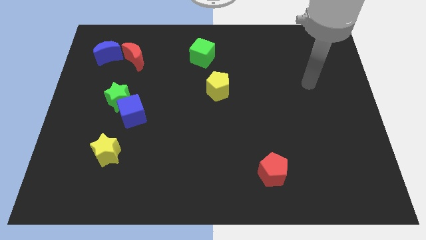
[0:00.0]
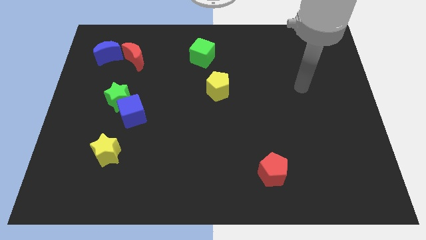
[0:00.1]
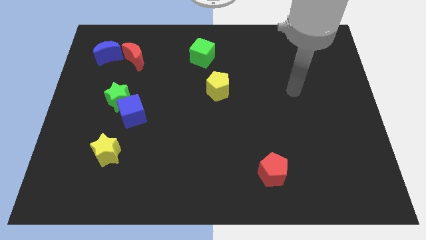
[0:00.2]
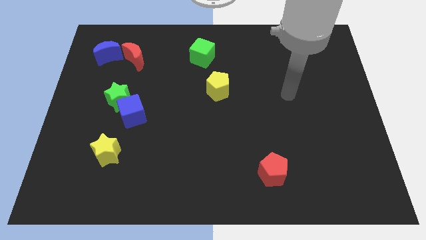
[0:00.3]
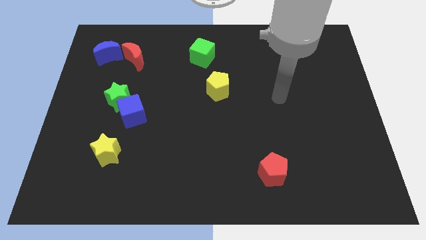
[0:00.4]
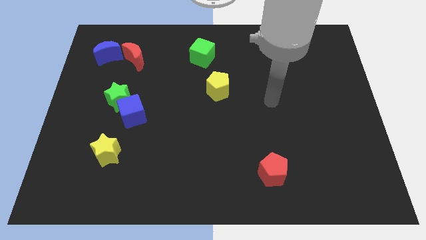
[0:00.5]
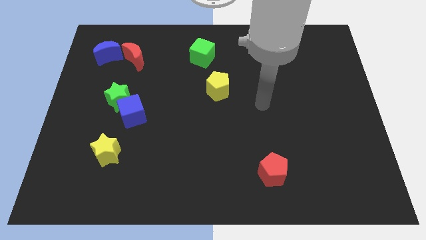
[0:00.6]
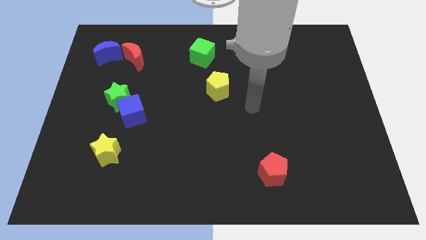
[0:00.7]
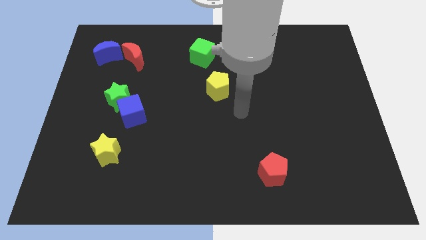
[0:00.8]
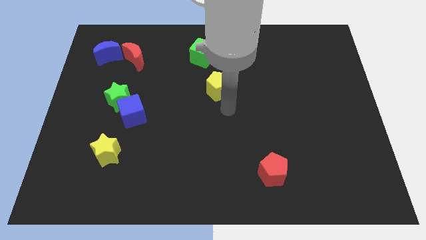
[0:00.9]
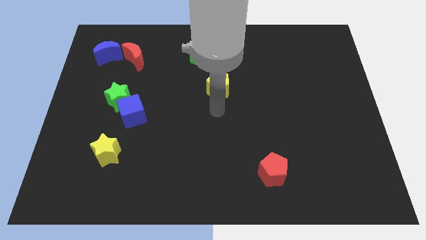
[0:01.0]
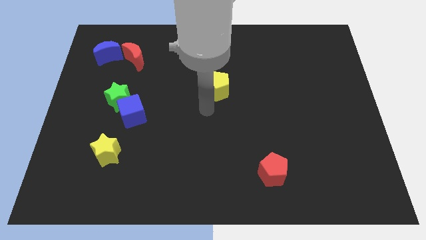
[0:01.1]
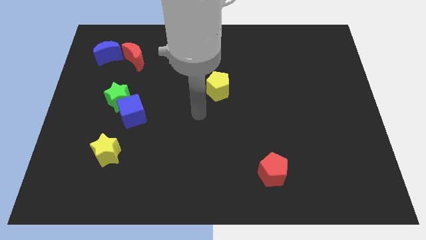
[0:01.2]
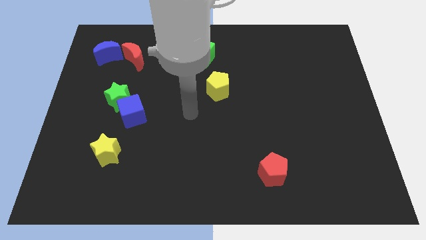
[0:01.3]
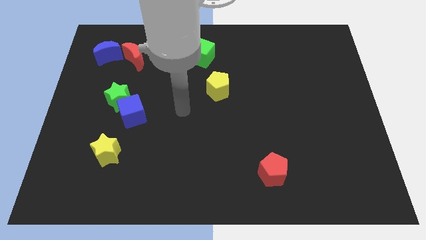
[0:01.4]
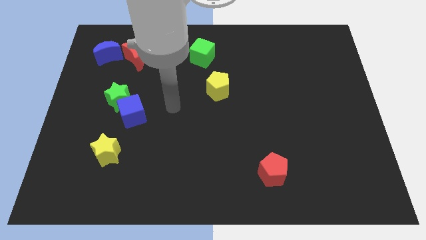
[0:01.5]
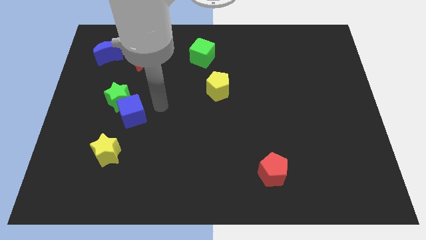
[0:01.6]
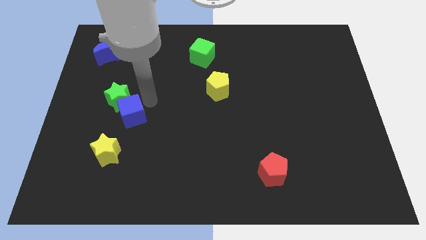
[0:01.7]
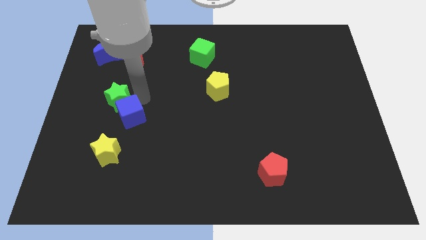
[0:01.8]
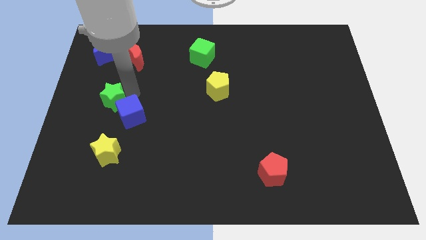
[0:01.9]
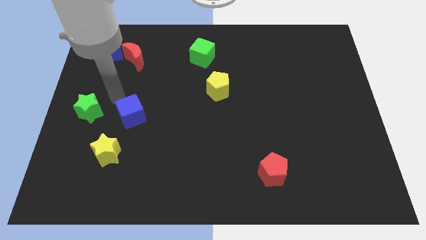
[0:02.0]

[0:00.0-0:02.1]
pull the blue cube apart from the green star

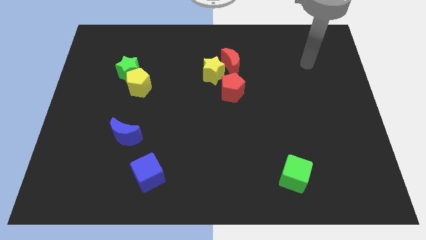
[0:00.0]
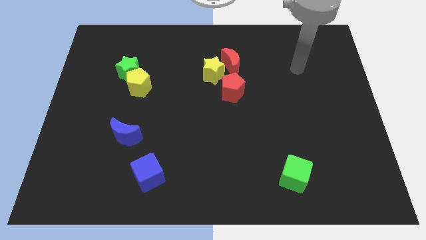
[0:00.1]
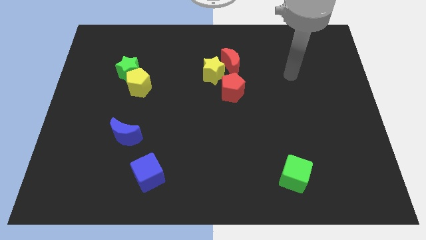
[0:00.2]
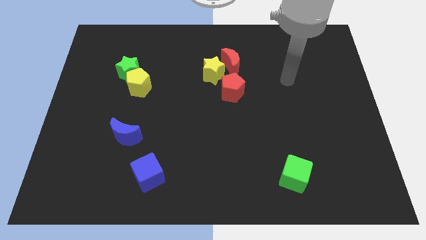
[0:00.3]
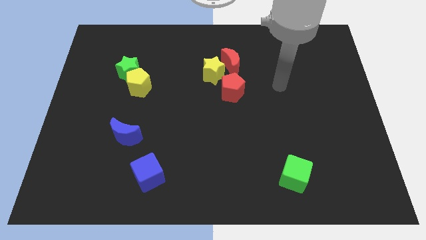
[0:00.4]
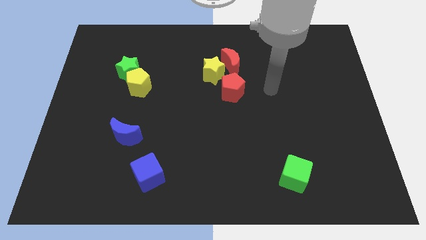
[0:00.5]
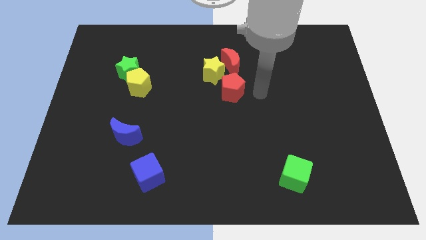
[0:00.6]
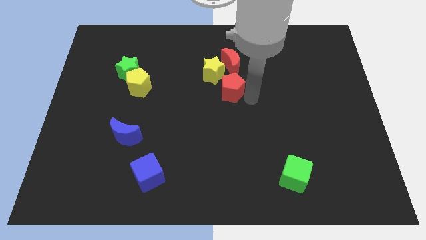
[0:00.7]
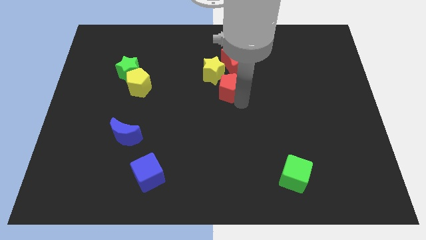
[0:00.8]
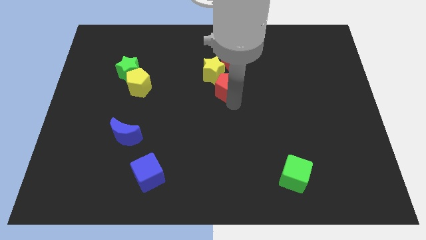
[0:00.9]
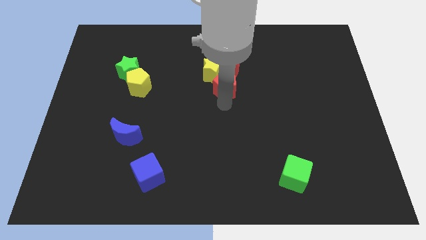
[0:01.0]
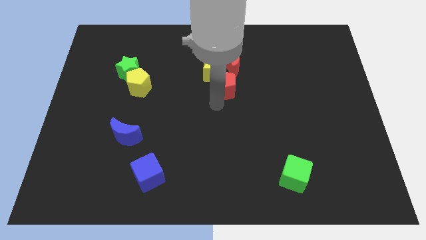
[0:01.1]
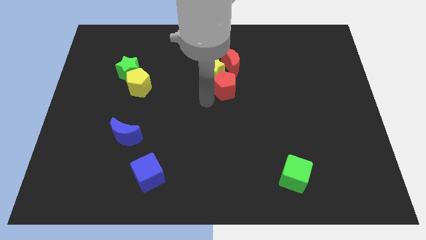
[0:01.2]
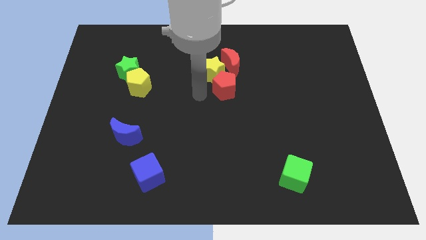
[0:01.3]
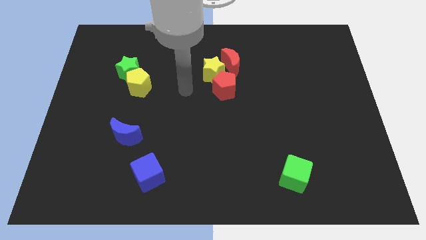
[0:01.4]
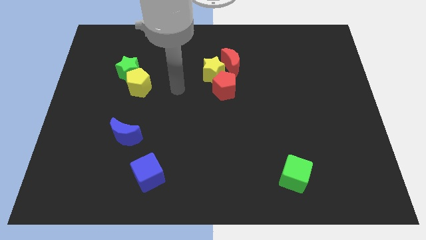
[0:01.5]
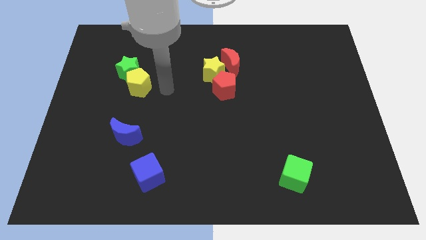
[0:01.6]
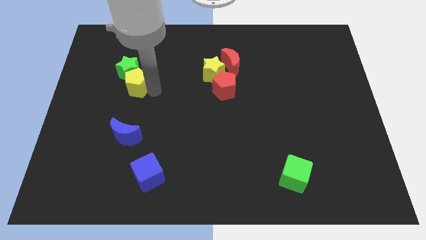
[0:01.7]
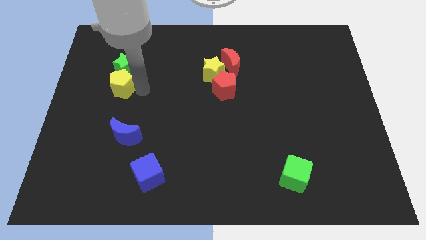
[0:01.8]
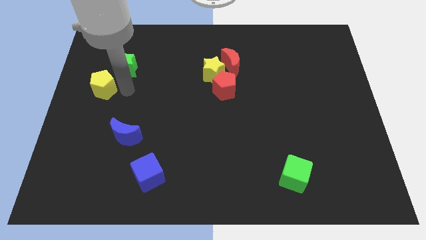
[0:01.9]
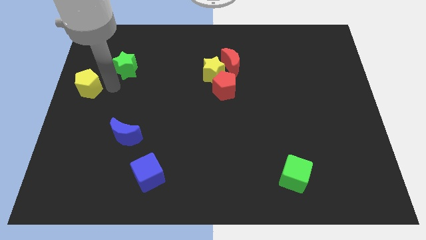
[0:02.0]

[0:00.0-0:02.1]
move the green star away from the yellow pentagon

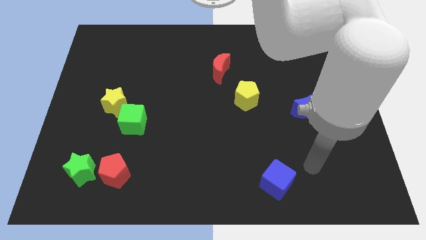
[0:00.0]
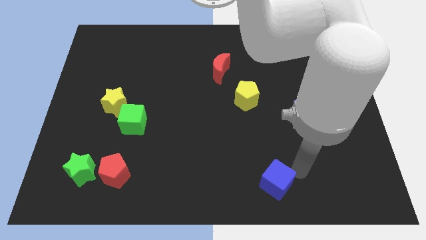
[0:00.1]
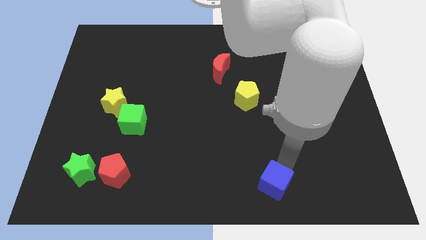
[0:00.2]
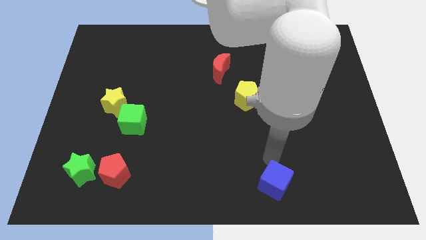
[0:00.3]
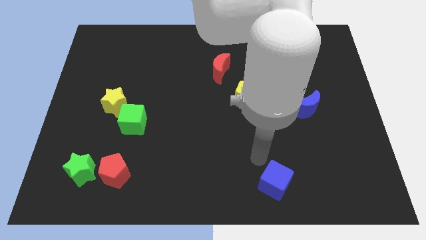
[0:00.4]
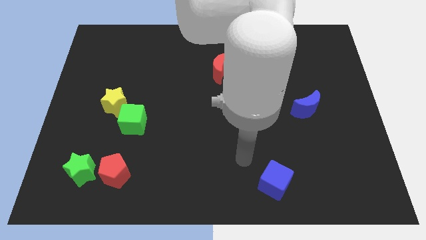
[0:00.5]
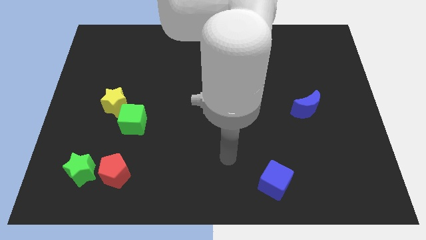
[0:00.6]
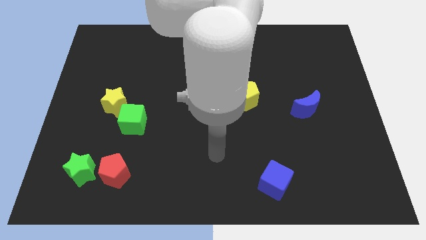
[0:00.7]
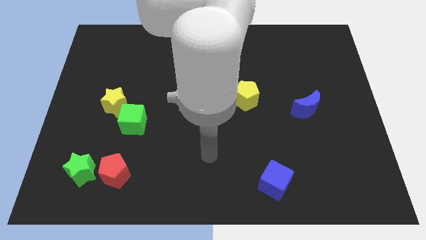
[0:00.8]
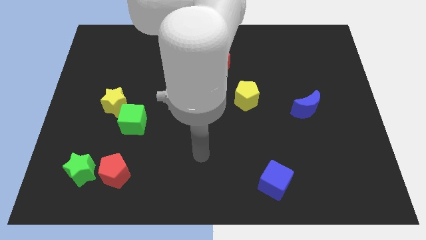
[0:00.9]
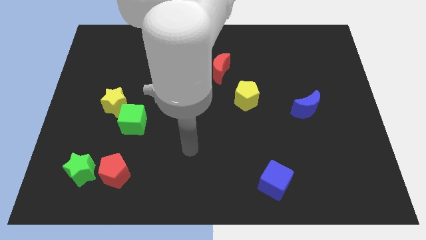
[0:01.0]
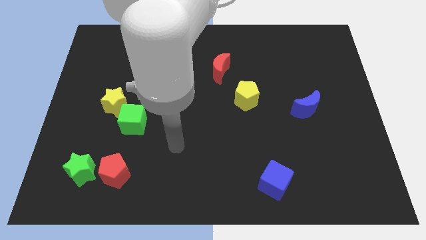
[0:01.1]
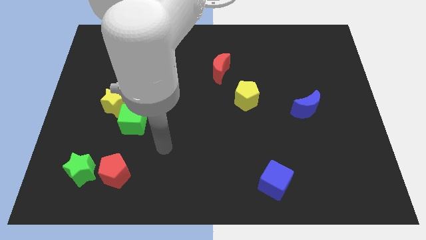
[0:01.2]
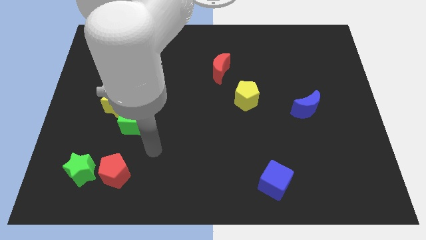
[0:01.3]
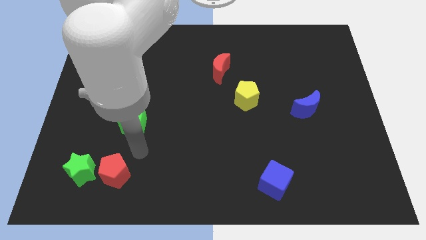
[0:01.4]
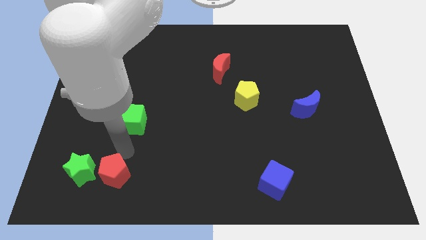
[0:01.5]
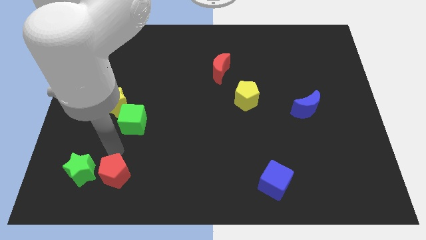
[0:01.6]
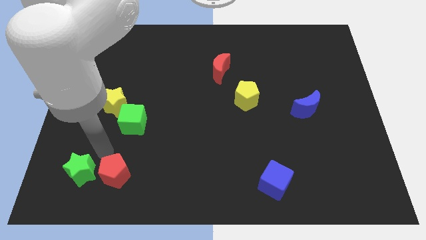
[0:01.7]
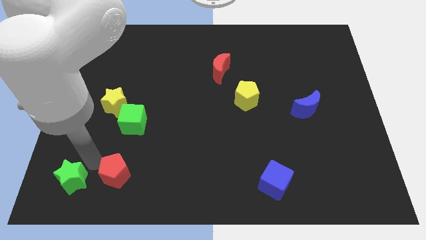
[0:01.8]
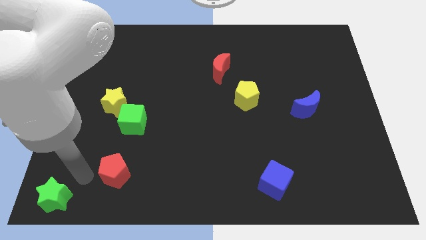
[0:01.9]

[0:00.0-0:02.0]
separate the red pentagon from the green star

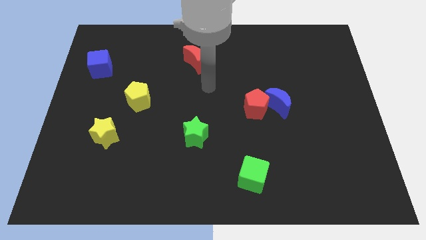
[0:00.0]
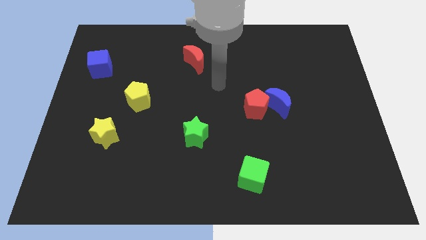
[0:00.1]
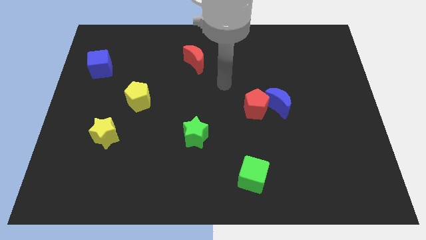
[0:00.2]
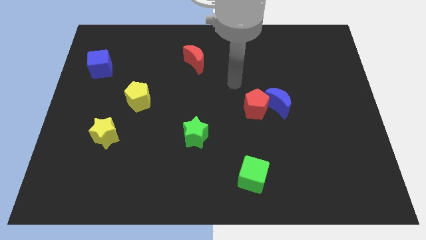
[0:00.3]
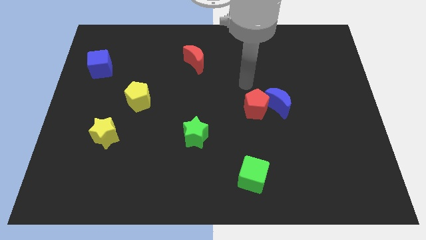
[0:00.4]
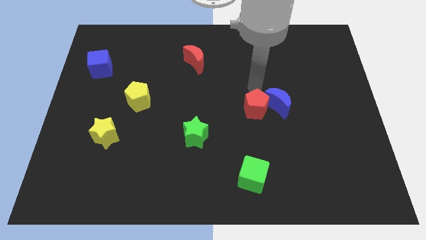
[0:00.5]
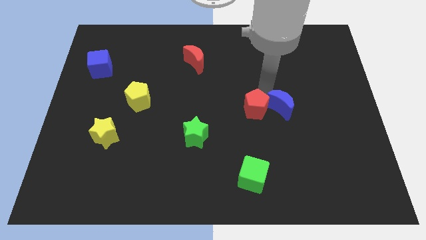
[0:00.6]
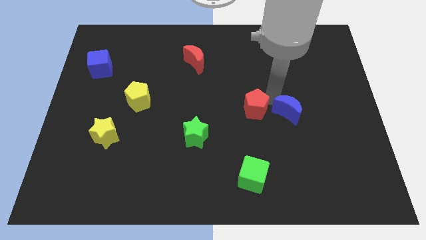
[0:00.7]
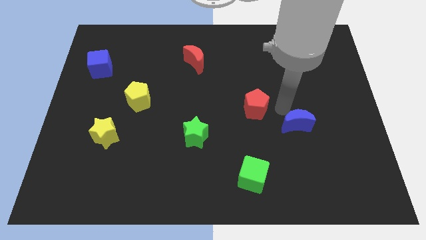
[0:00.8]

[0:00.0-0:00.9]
move the red pentagon away from the blue moon

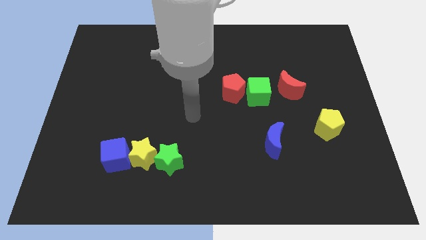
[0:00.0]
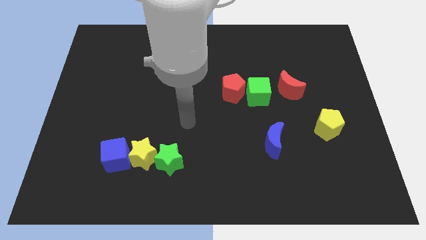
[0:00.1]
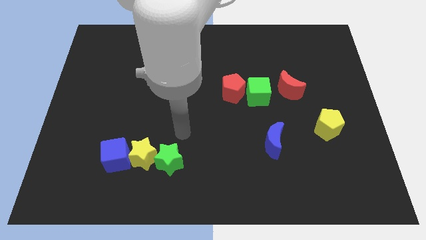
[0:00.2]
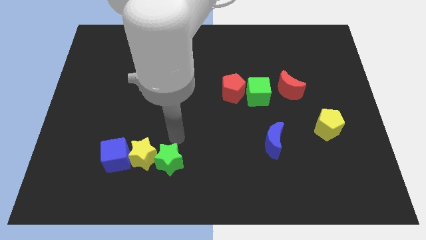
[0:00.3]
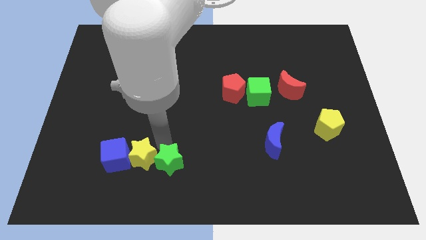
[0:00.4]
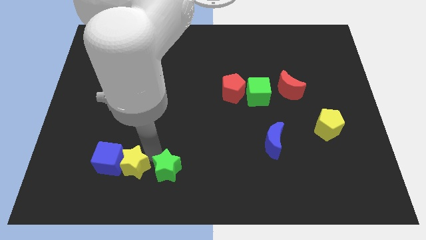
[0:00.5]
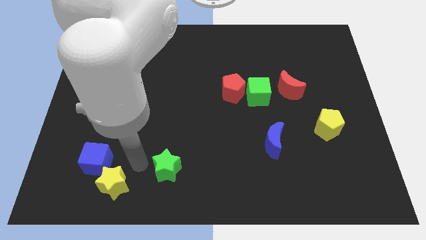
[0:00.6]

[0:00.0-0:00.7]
pull the green star apart from the yellow star

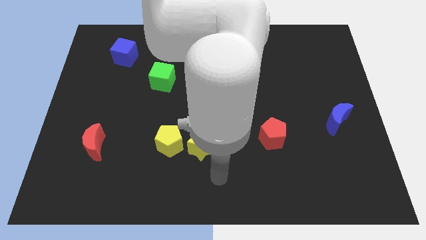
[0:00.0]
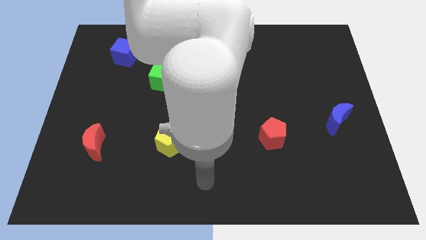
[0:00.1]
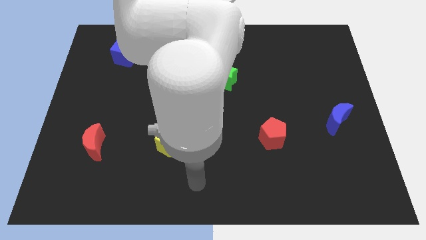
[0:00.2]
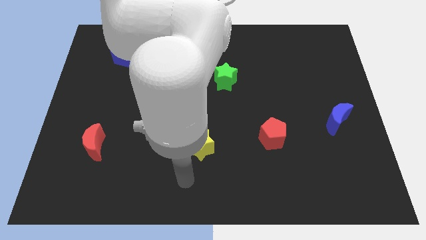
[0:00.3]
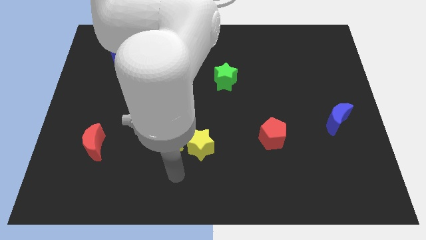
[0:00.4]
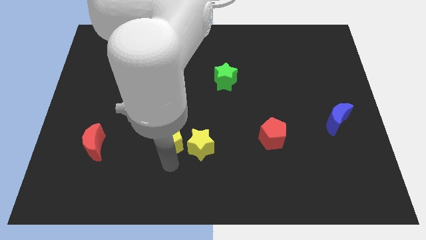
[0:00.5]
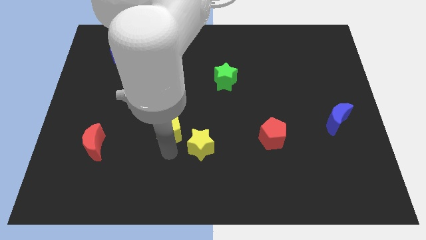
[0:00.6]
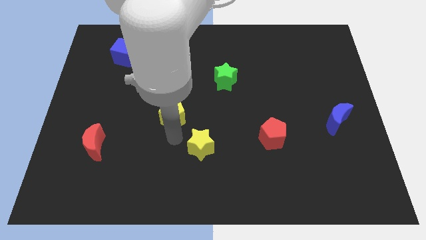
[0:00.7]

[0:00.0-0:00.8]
pull the yellow star apart from the yellow pentagon

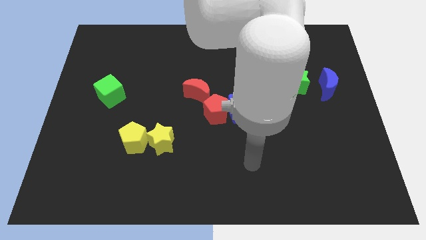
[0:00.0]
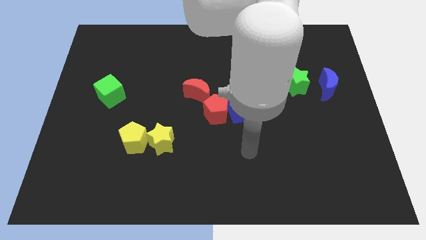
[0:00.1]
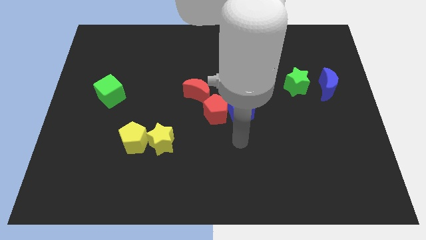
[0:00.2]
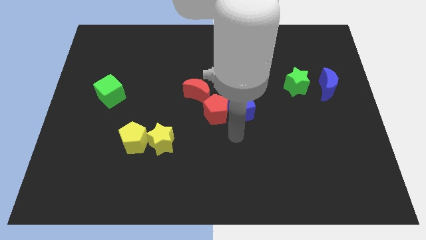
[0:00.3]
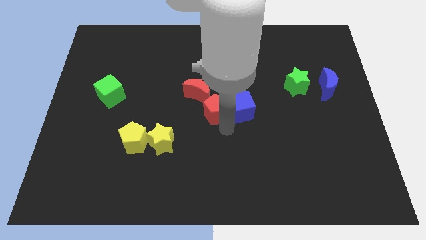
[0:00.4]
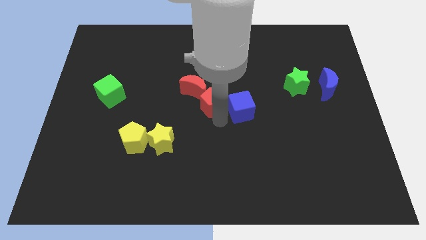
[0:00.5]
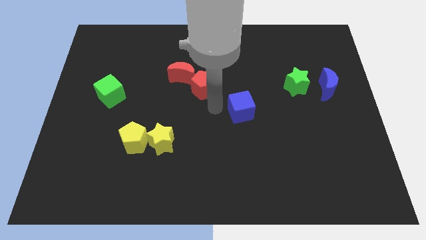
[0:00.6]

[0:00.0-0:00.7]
separate the blue cube from the red pentagon
